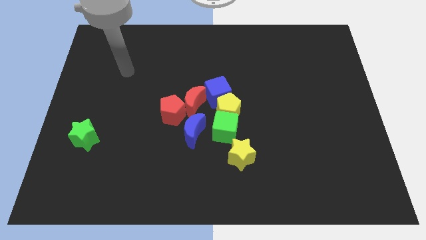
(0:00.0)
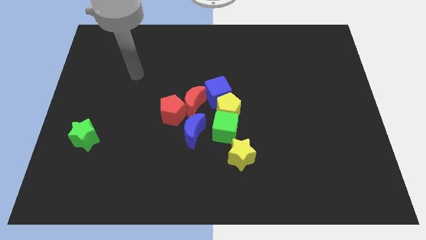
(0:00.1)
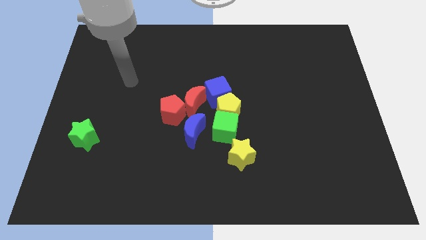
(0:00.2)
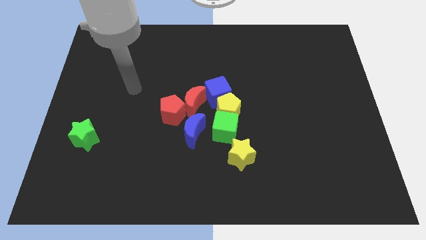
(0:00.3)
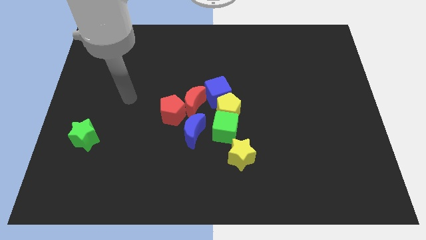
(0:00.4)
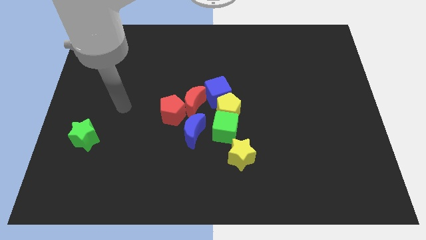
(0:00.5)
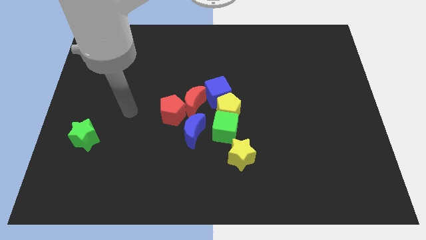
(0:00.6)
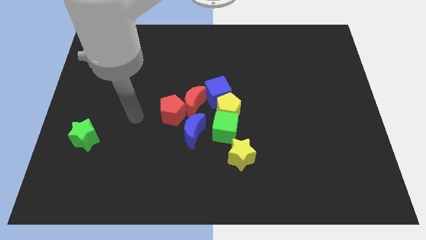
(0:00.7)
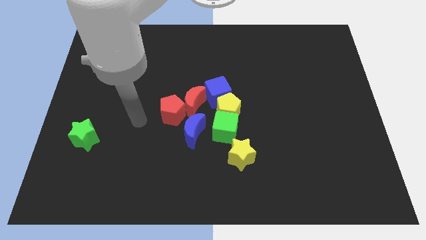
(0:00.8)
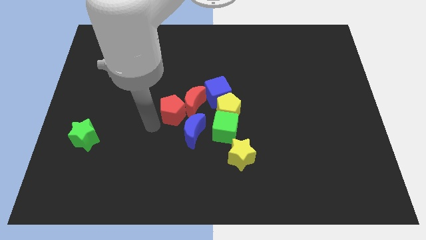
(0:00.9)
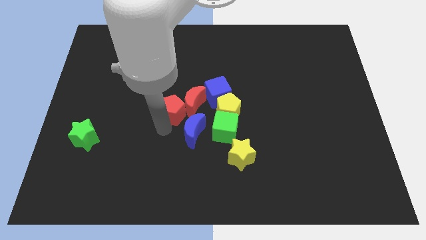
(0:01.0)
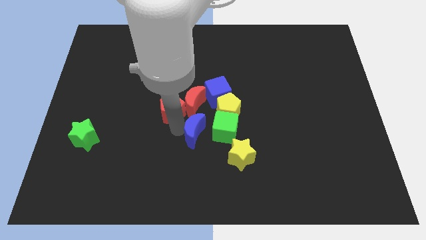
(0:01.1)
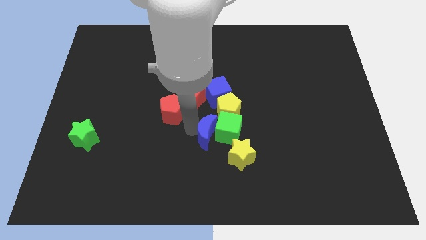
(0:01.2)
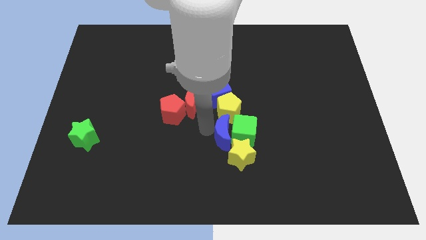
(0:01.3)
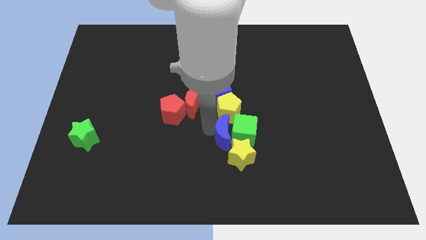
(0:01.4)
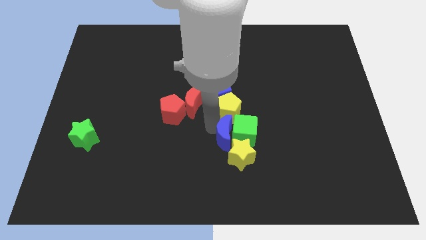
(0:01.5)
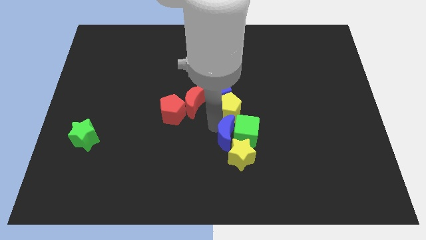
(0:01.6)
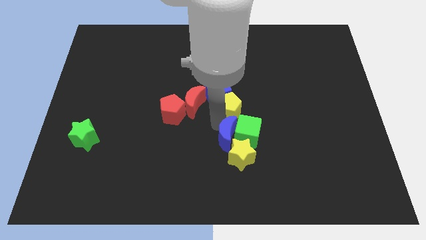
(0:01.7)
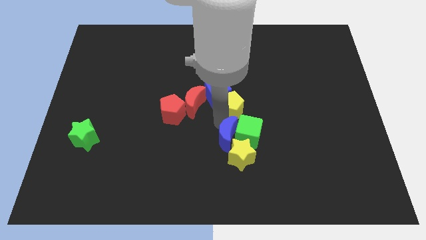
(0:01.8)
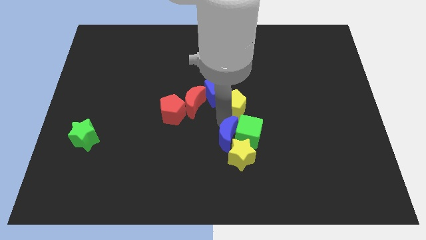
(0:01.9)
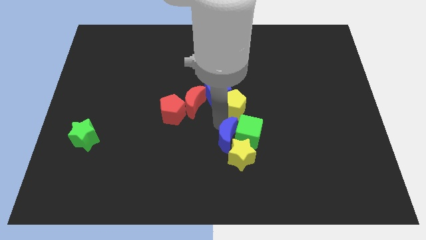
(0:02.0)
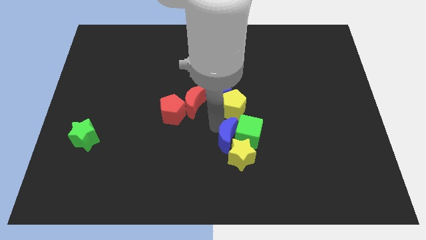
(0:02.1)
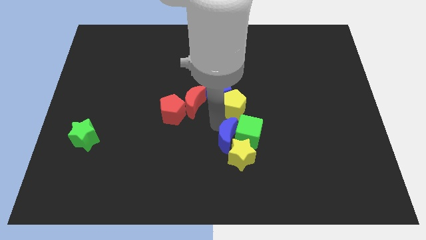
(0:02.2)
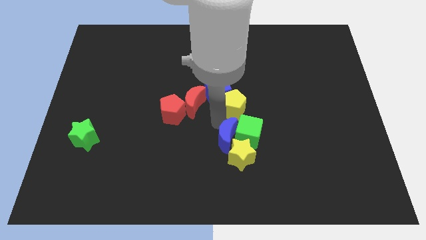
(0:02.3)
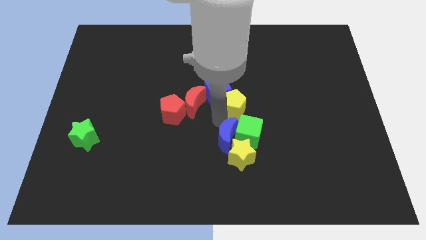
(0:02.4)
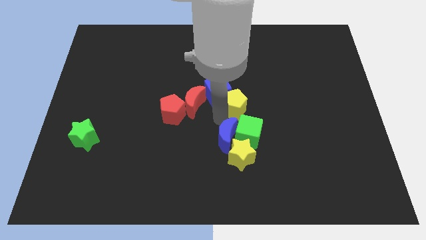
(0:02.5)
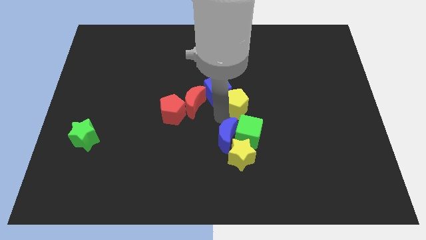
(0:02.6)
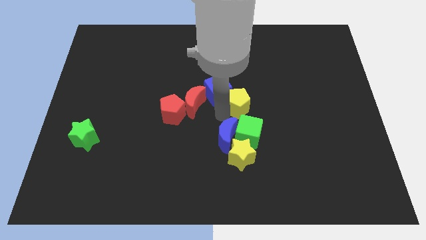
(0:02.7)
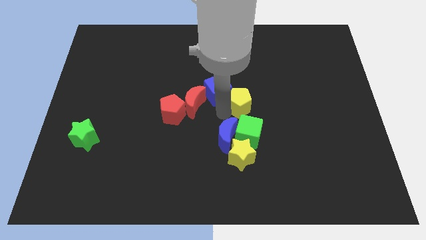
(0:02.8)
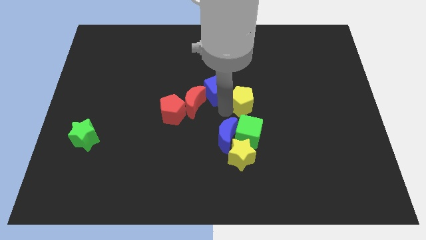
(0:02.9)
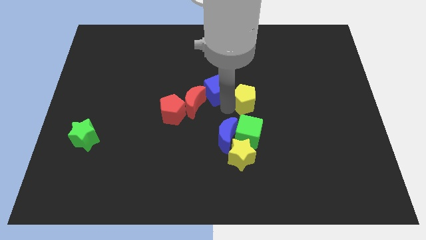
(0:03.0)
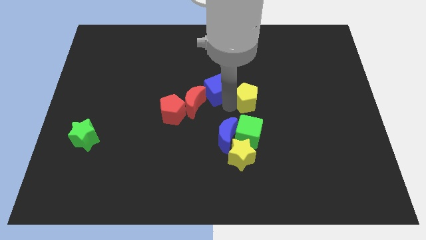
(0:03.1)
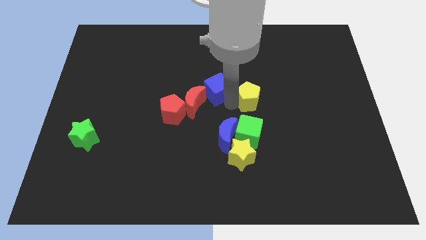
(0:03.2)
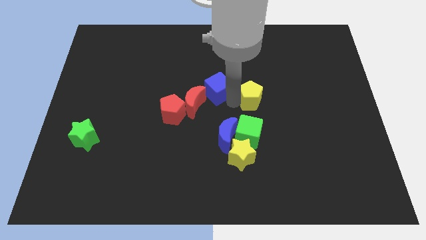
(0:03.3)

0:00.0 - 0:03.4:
move the yellow pentagon a bit up and to the right diagonally

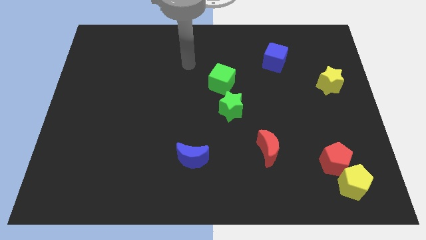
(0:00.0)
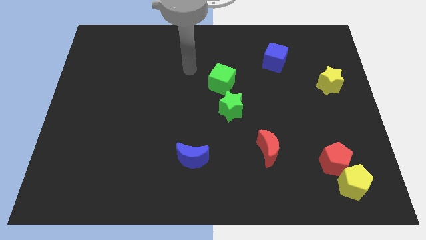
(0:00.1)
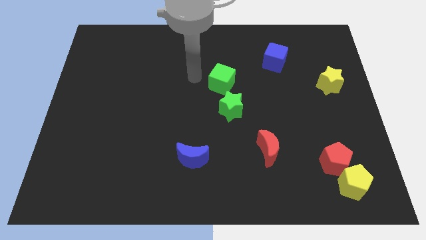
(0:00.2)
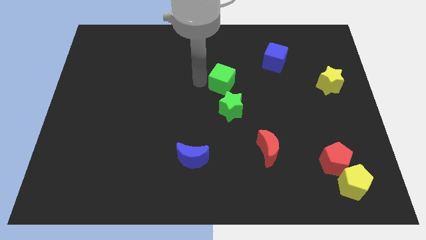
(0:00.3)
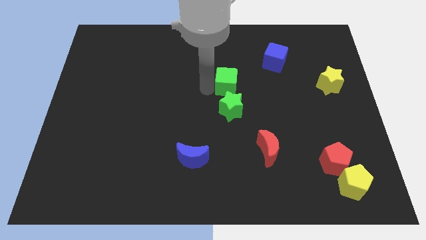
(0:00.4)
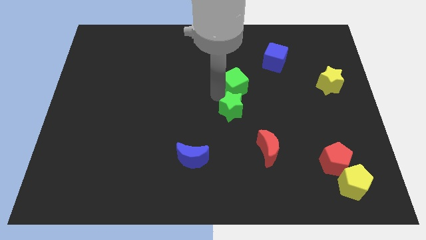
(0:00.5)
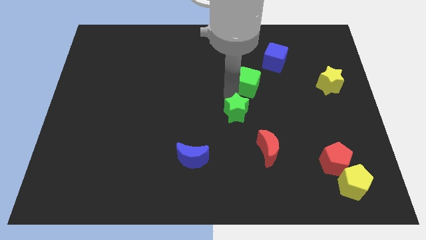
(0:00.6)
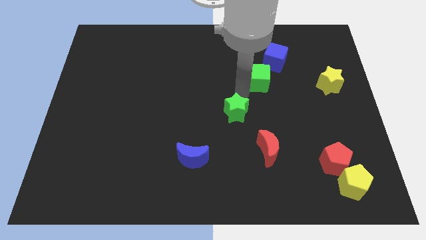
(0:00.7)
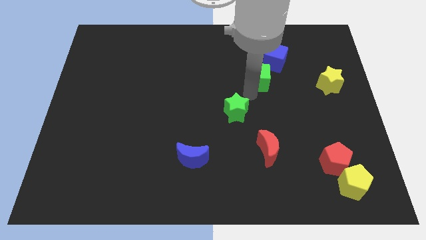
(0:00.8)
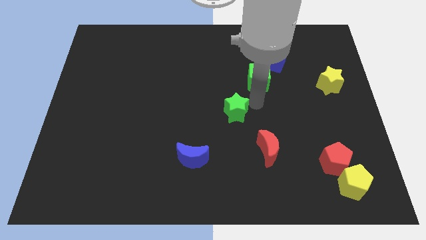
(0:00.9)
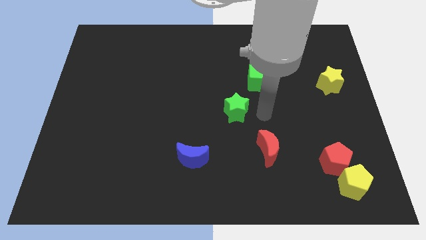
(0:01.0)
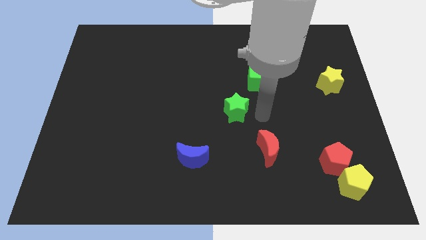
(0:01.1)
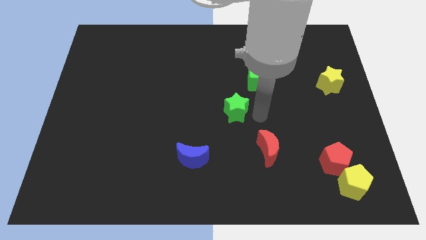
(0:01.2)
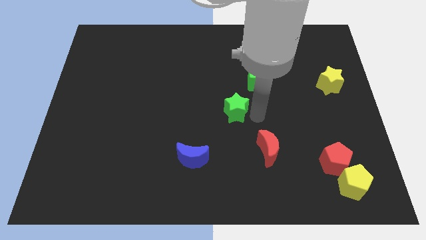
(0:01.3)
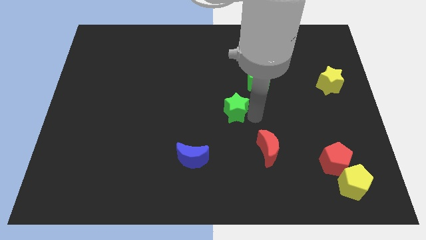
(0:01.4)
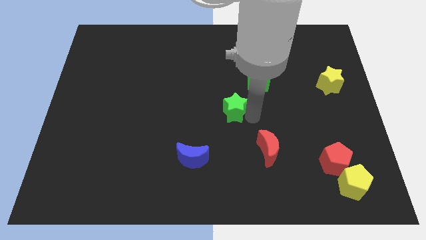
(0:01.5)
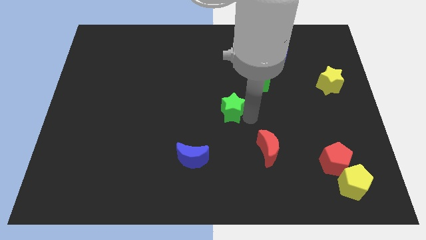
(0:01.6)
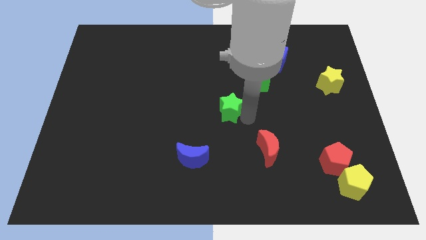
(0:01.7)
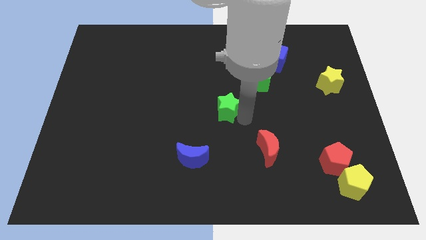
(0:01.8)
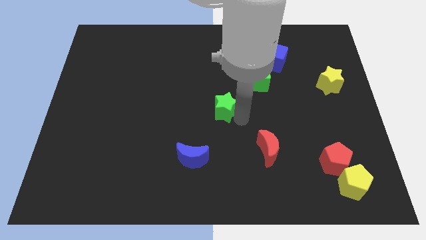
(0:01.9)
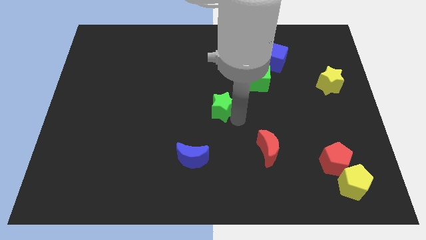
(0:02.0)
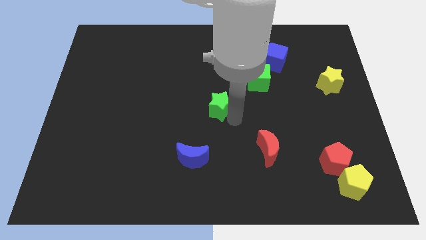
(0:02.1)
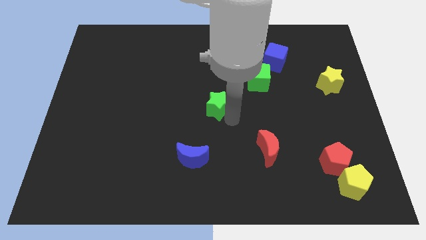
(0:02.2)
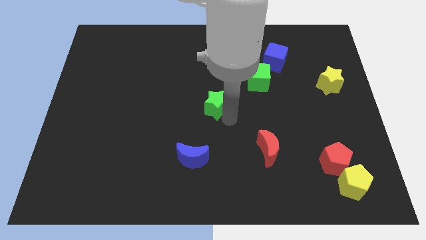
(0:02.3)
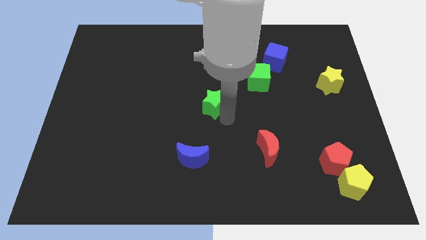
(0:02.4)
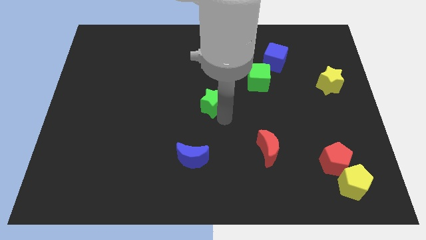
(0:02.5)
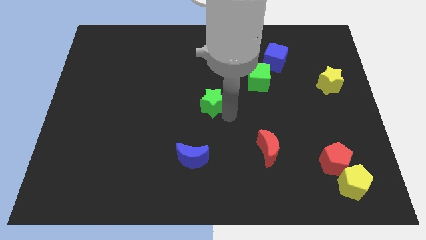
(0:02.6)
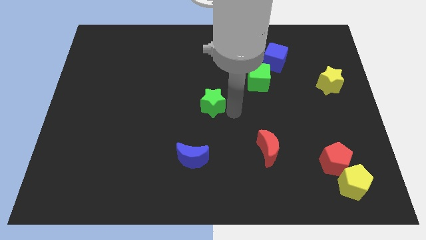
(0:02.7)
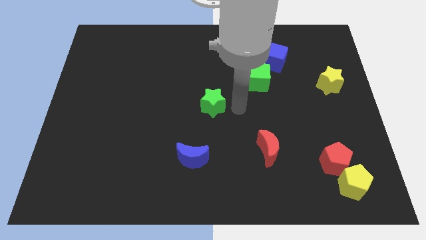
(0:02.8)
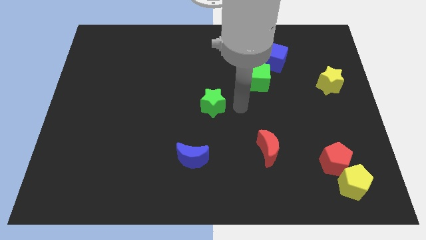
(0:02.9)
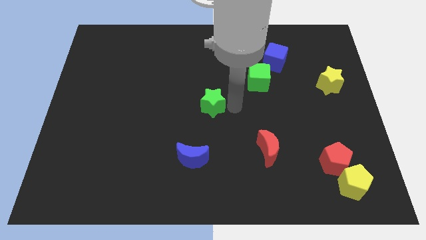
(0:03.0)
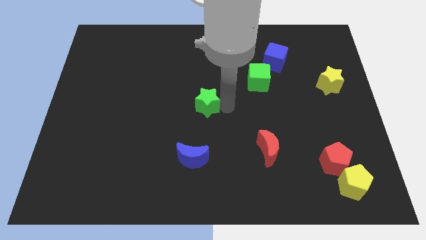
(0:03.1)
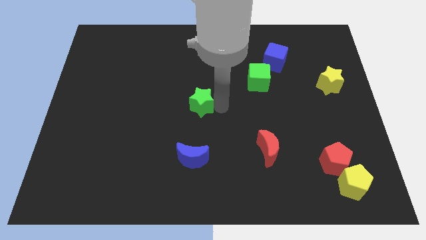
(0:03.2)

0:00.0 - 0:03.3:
slide the green star a little bit left

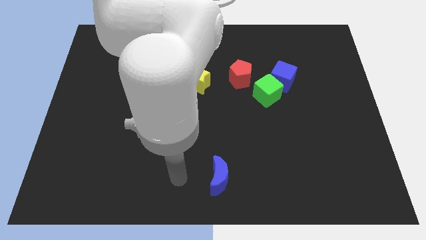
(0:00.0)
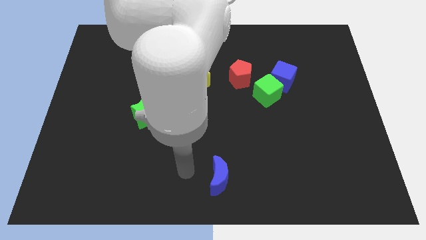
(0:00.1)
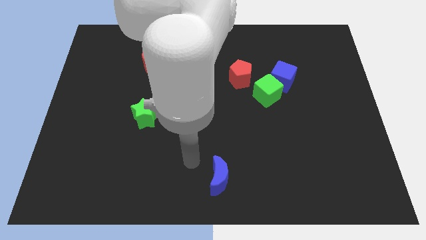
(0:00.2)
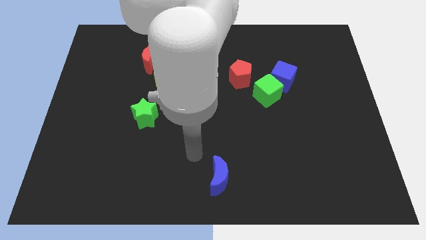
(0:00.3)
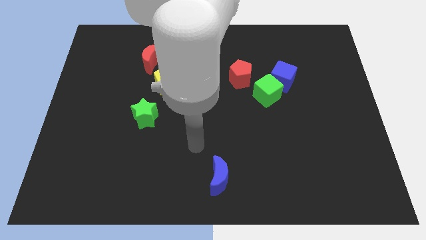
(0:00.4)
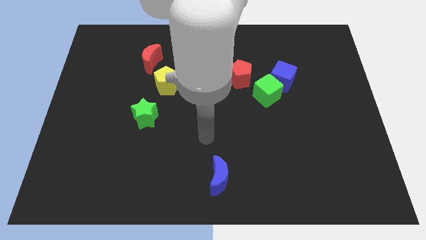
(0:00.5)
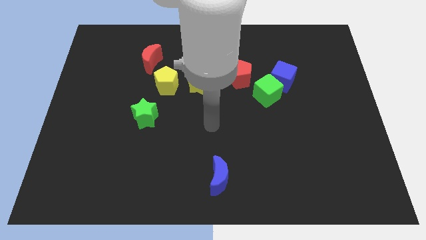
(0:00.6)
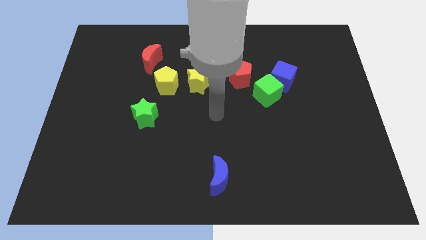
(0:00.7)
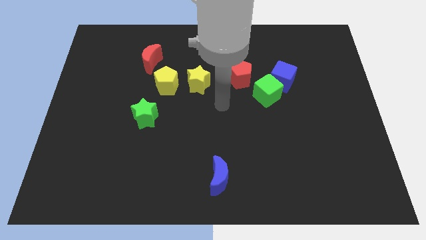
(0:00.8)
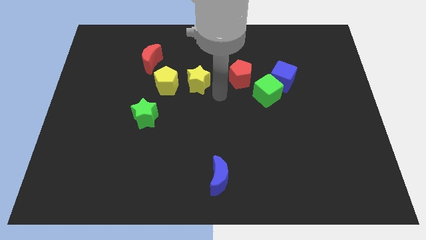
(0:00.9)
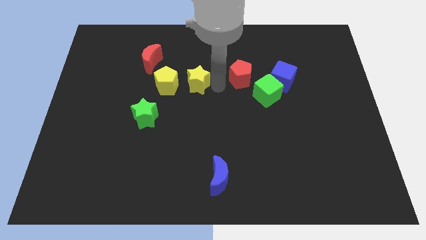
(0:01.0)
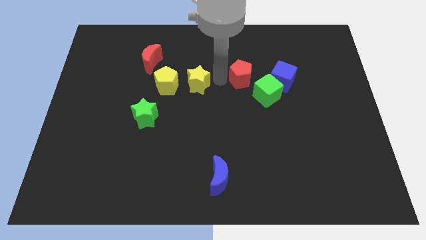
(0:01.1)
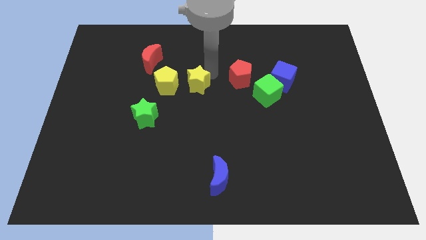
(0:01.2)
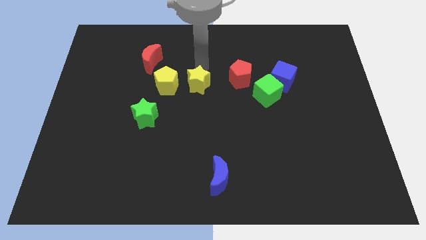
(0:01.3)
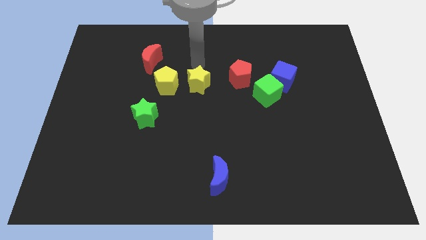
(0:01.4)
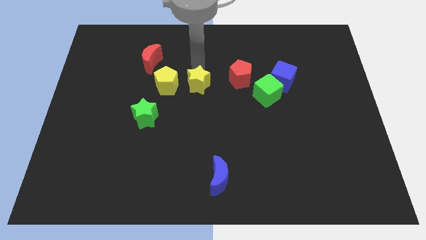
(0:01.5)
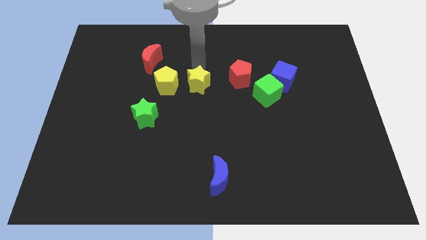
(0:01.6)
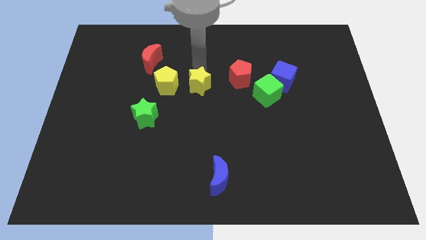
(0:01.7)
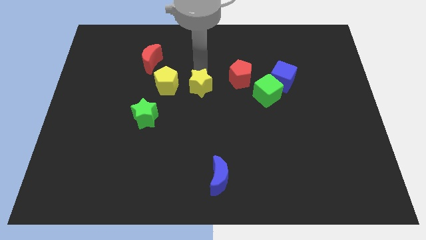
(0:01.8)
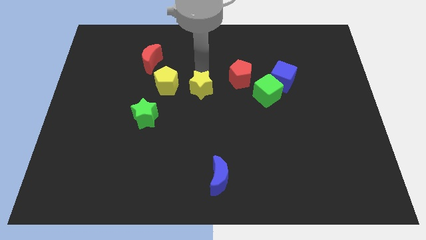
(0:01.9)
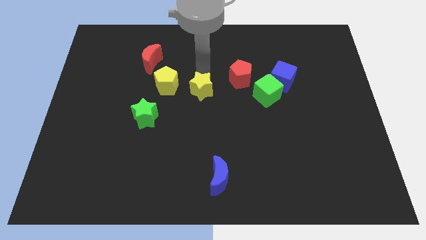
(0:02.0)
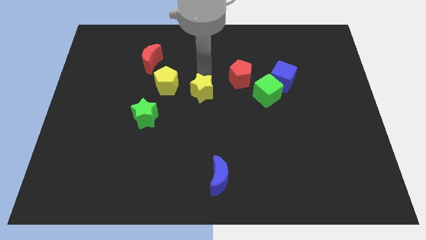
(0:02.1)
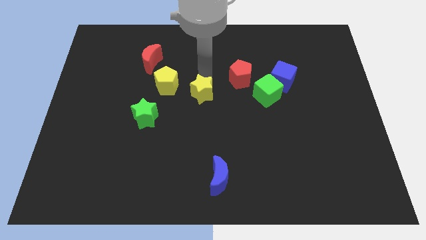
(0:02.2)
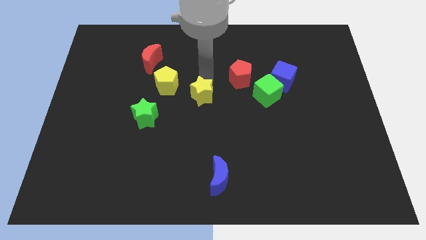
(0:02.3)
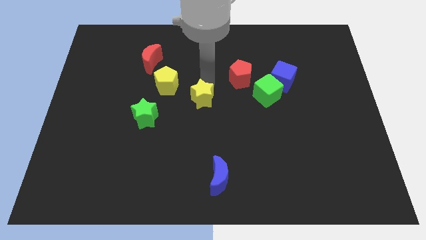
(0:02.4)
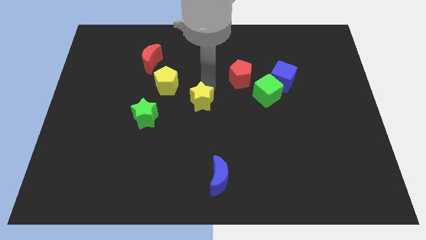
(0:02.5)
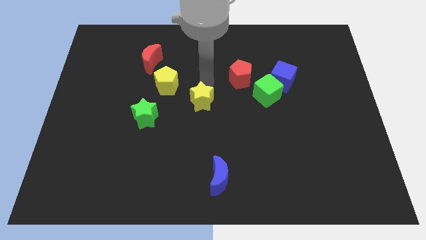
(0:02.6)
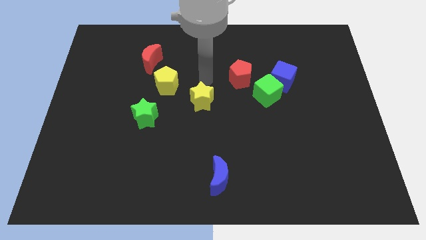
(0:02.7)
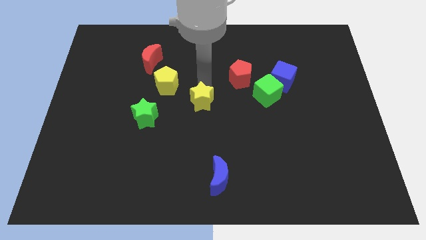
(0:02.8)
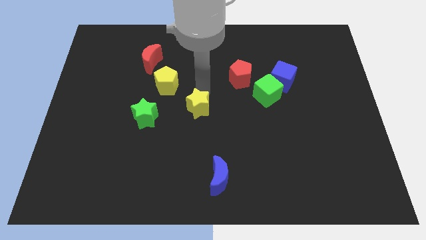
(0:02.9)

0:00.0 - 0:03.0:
slightly move the yellow star down
